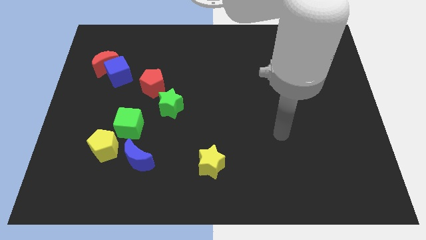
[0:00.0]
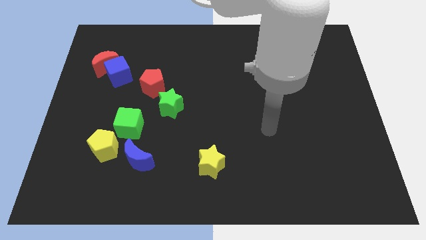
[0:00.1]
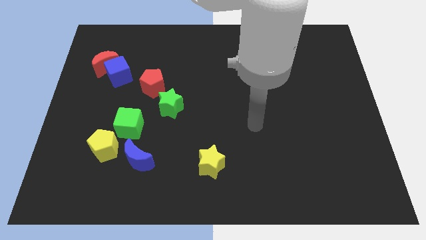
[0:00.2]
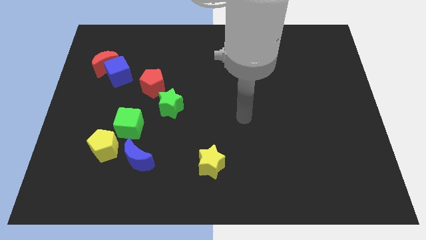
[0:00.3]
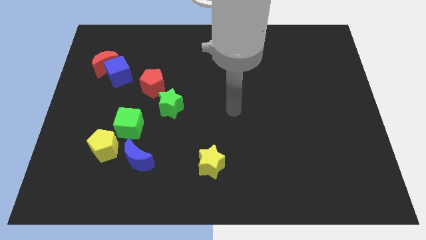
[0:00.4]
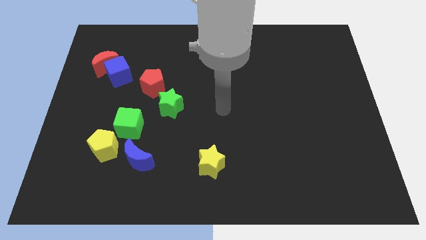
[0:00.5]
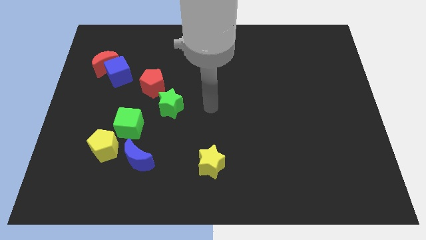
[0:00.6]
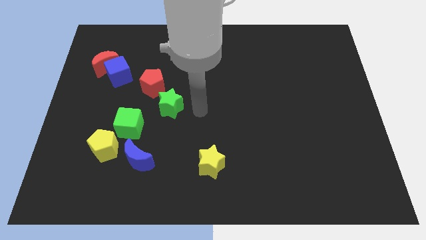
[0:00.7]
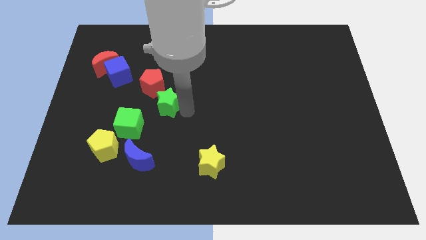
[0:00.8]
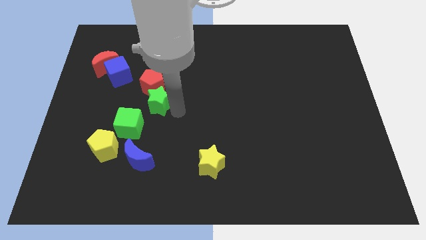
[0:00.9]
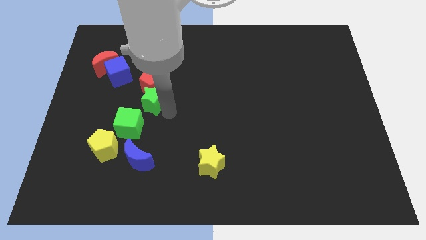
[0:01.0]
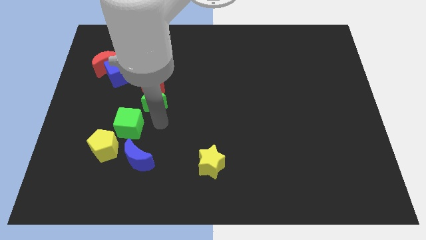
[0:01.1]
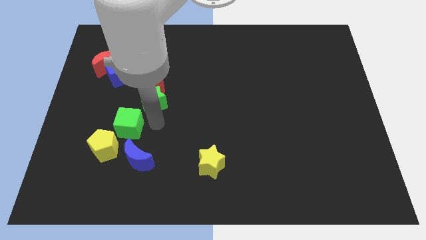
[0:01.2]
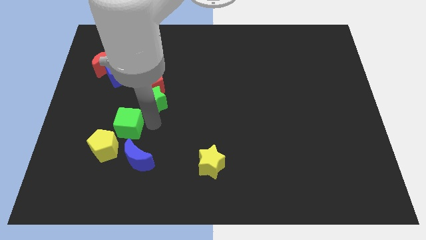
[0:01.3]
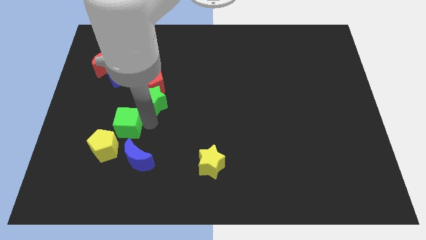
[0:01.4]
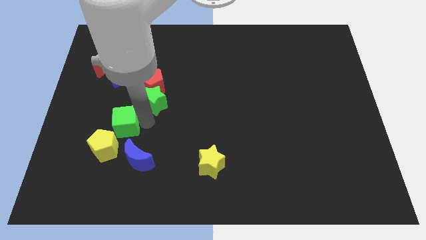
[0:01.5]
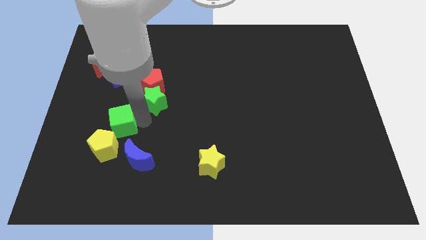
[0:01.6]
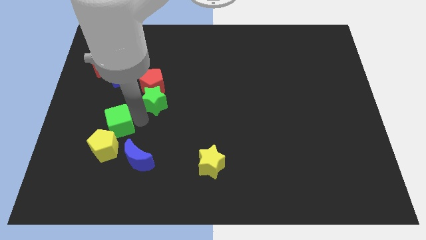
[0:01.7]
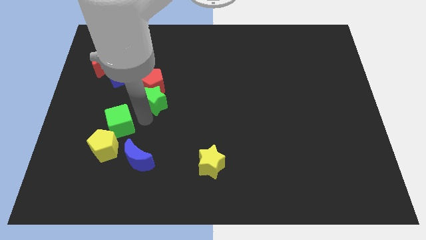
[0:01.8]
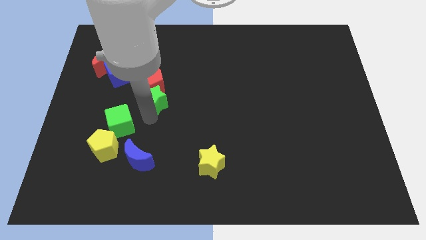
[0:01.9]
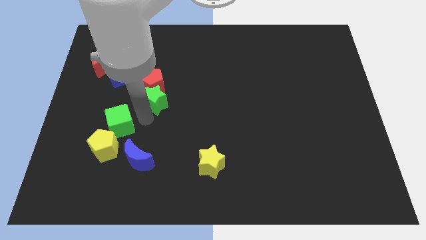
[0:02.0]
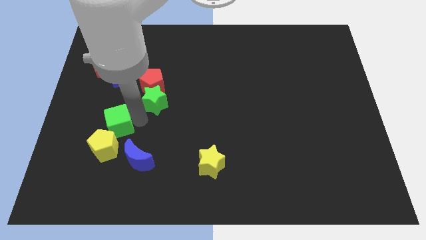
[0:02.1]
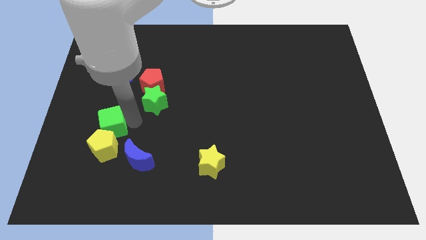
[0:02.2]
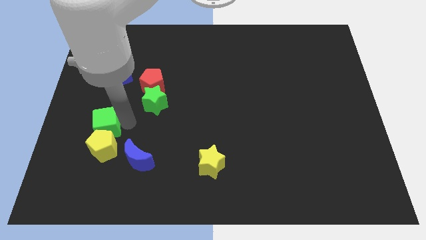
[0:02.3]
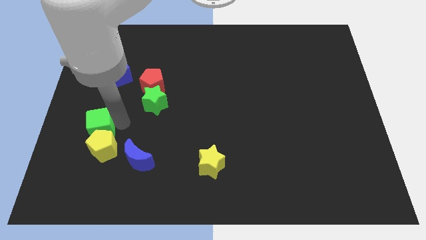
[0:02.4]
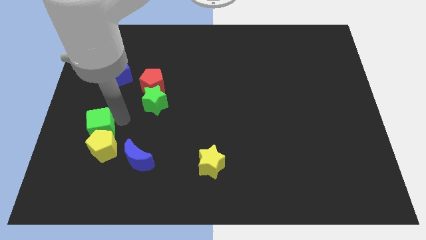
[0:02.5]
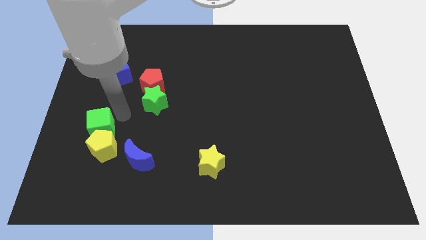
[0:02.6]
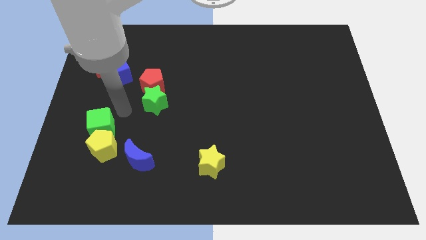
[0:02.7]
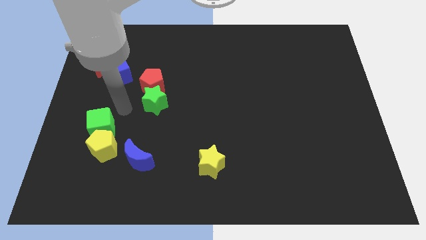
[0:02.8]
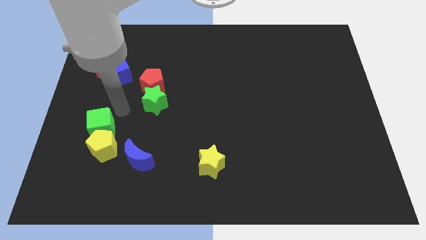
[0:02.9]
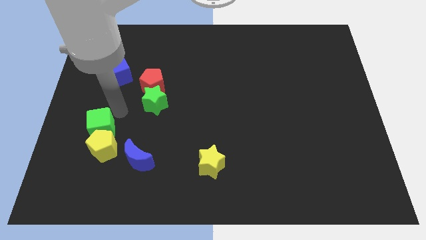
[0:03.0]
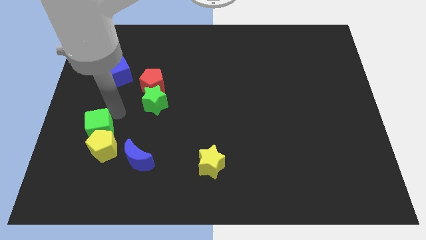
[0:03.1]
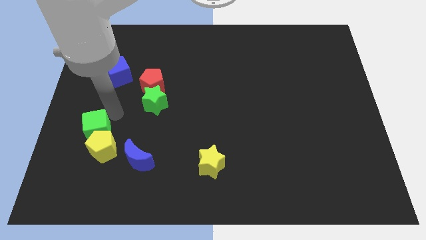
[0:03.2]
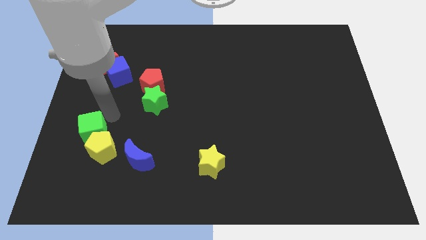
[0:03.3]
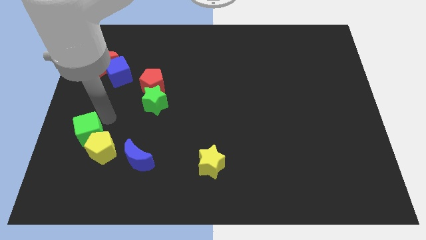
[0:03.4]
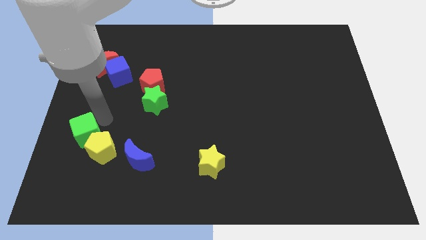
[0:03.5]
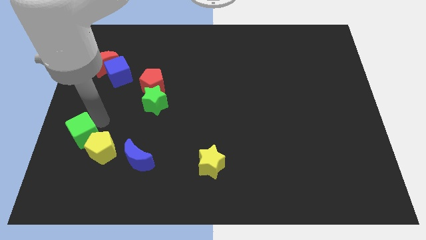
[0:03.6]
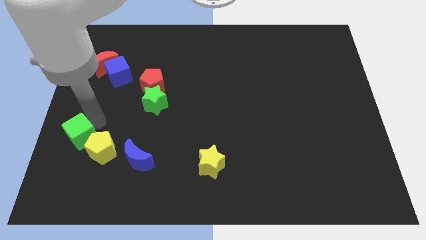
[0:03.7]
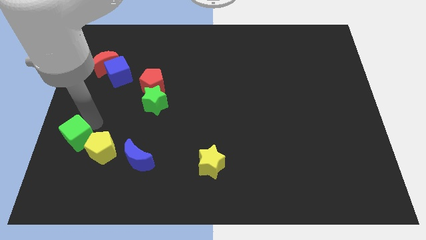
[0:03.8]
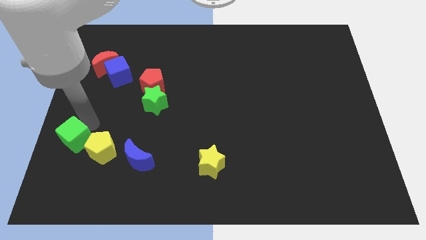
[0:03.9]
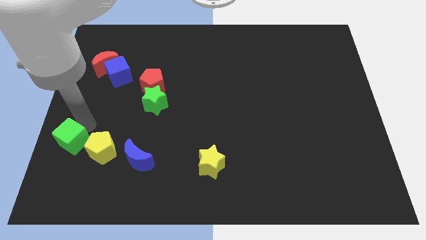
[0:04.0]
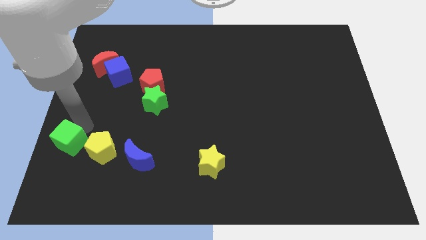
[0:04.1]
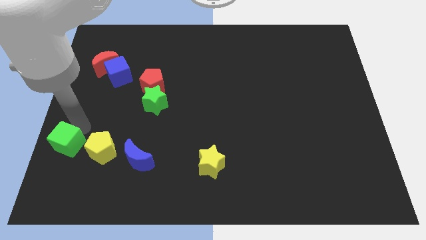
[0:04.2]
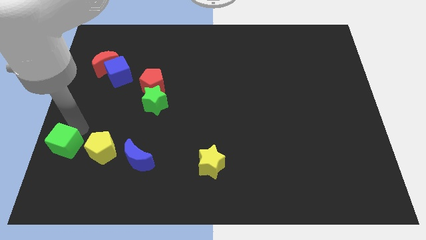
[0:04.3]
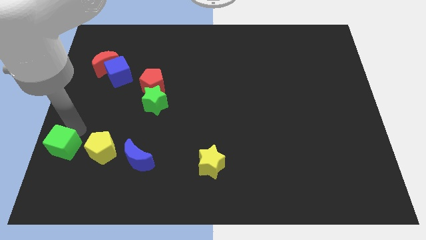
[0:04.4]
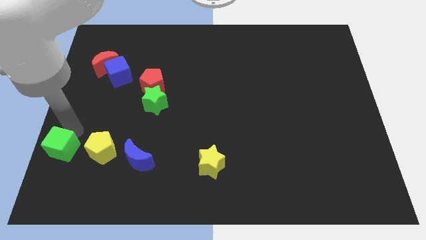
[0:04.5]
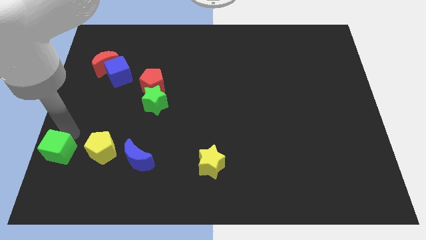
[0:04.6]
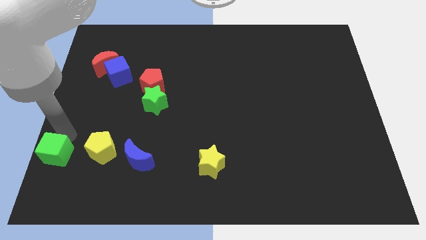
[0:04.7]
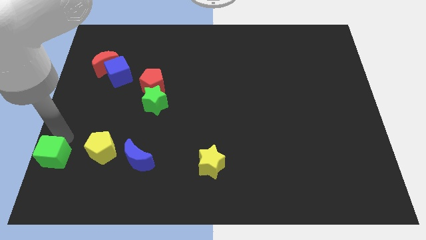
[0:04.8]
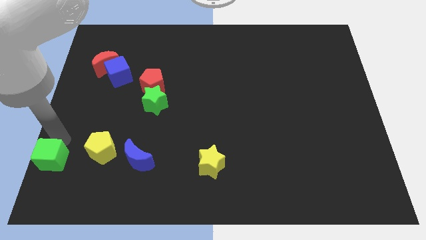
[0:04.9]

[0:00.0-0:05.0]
slide the green cube to the bottom left

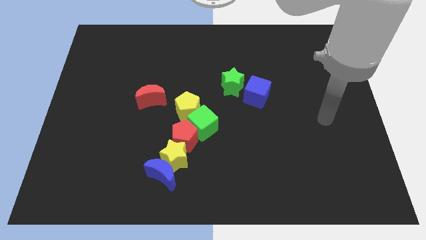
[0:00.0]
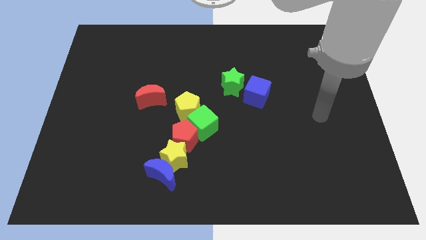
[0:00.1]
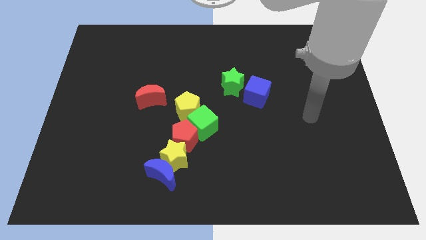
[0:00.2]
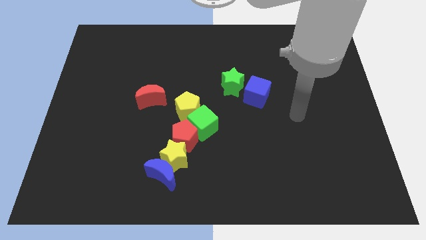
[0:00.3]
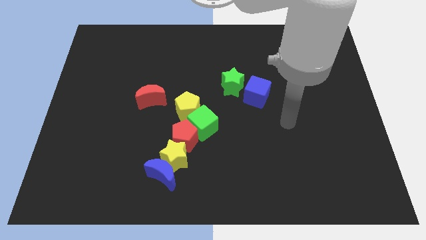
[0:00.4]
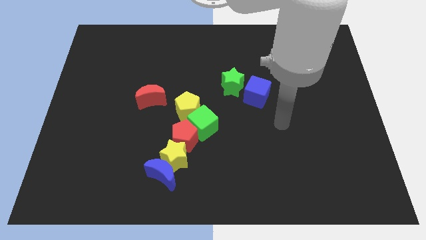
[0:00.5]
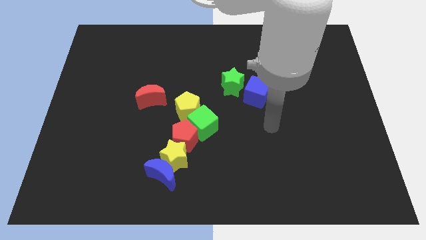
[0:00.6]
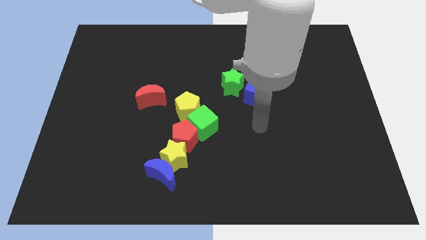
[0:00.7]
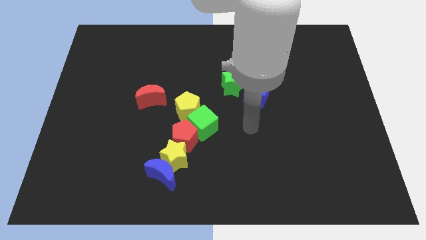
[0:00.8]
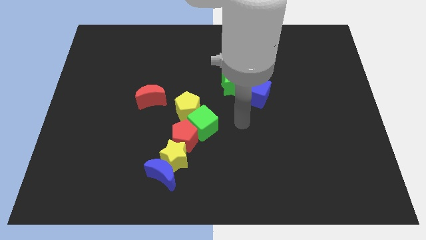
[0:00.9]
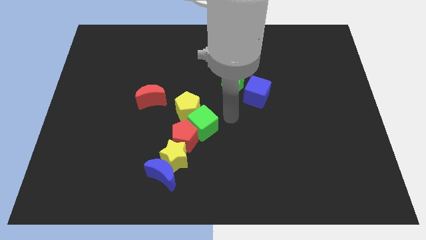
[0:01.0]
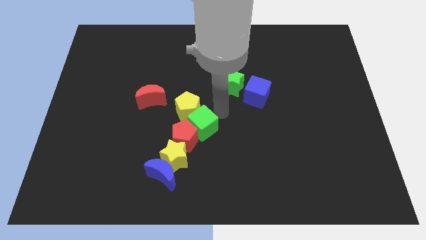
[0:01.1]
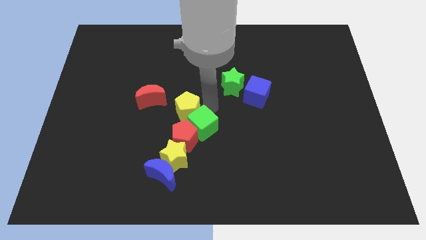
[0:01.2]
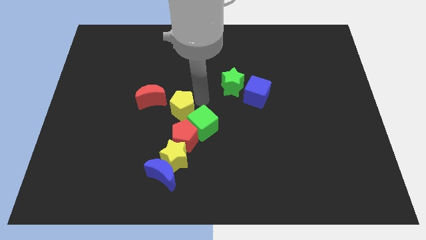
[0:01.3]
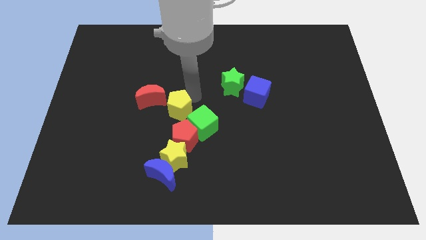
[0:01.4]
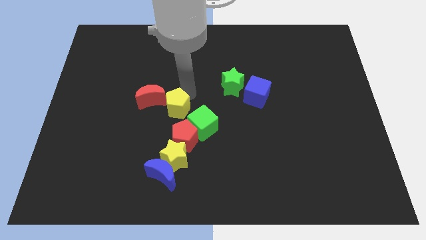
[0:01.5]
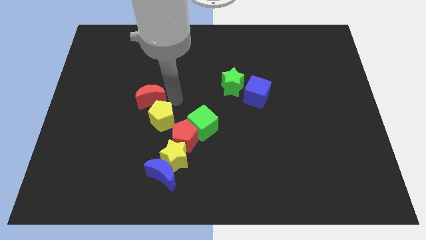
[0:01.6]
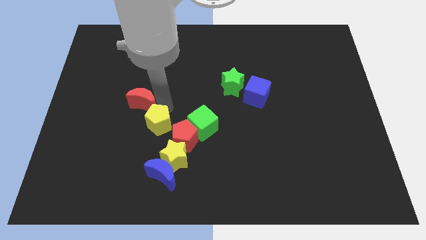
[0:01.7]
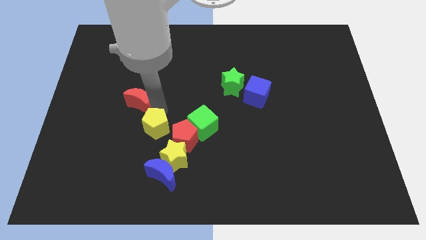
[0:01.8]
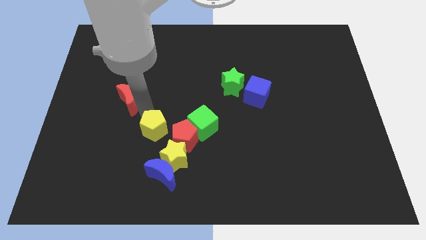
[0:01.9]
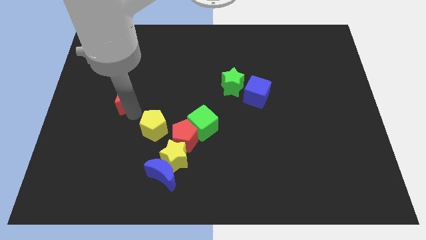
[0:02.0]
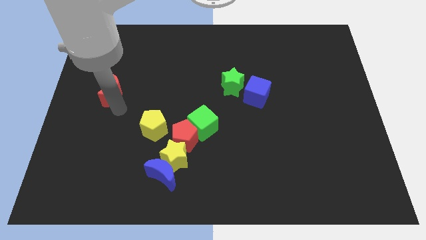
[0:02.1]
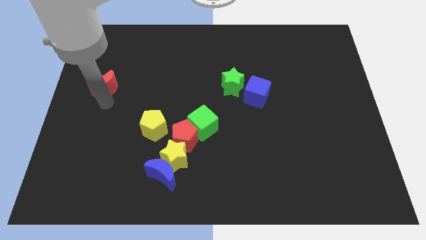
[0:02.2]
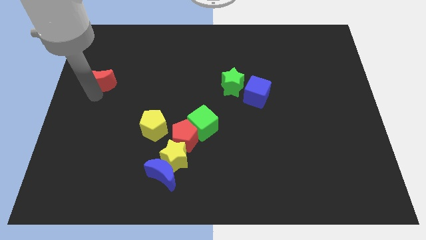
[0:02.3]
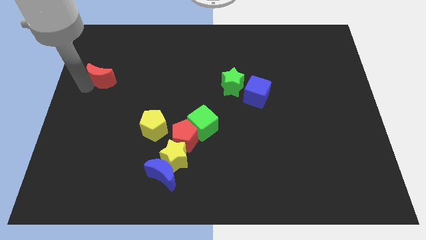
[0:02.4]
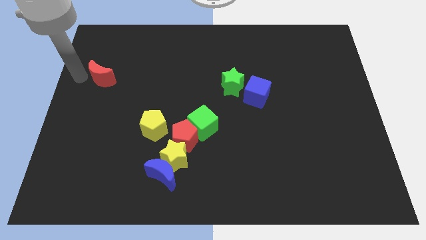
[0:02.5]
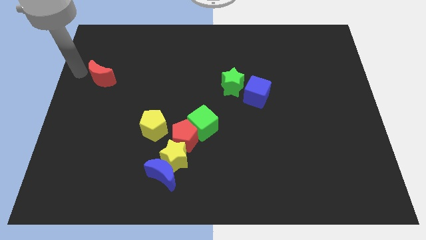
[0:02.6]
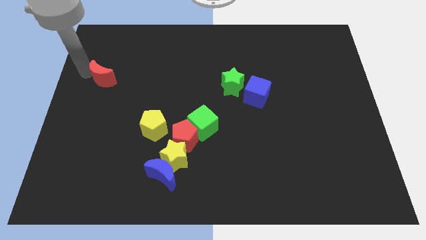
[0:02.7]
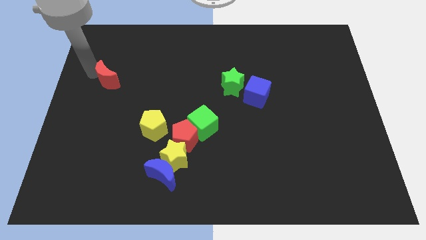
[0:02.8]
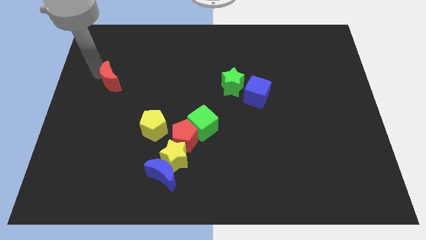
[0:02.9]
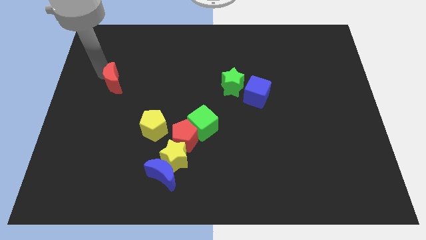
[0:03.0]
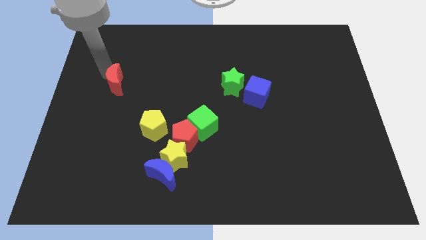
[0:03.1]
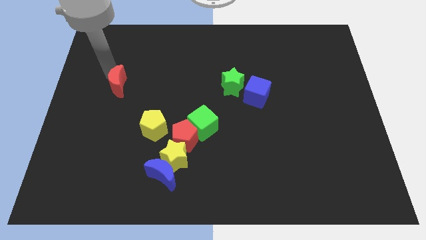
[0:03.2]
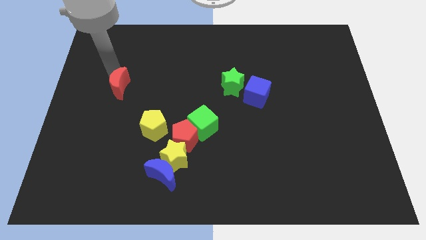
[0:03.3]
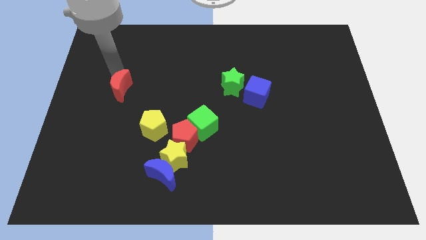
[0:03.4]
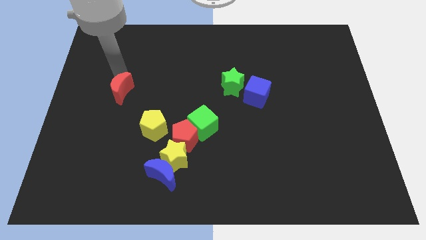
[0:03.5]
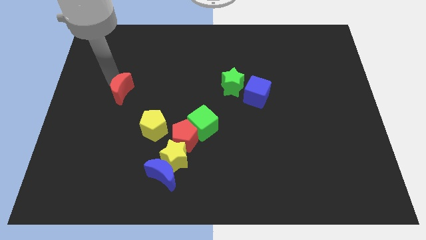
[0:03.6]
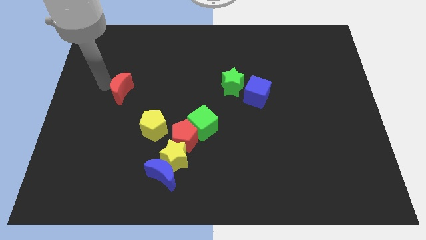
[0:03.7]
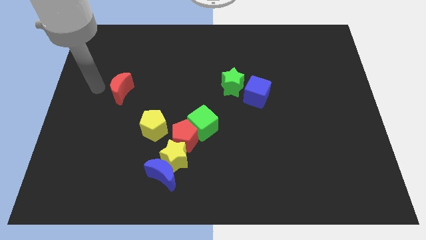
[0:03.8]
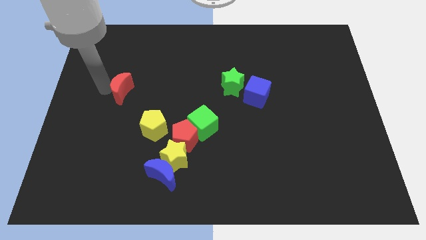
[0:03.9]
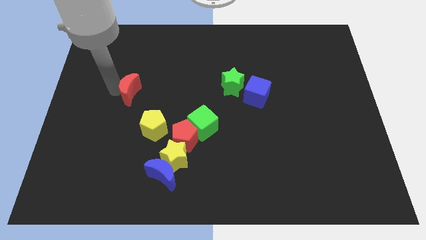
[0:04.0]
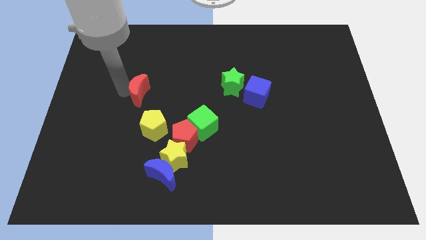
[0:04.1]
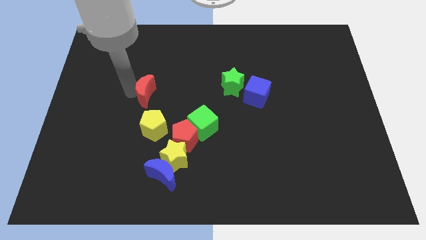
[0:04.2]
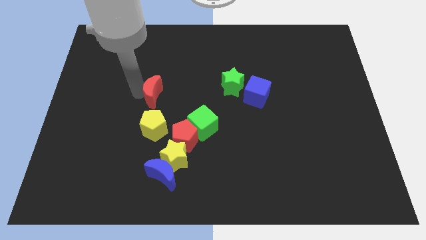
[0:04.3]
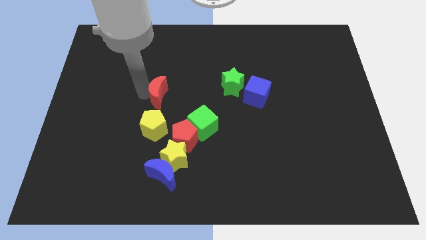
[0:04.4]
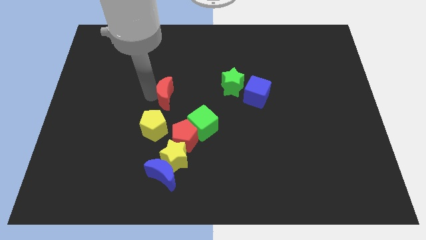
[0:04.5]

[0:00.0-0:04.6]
move the red moon to the center
